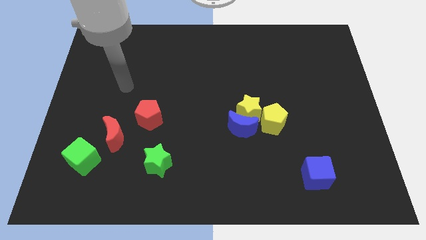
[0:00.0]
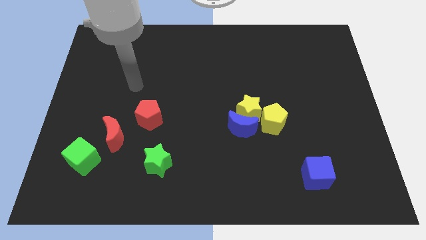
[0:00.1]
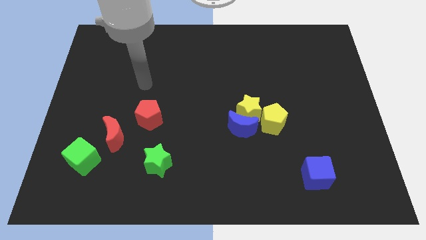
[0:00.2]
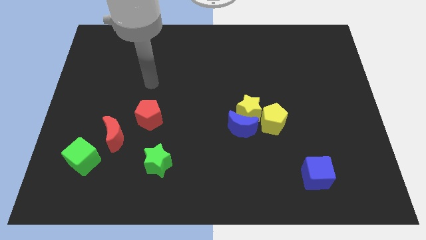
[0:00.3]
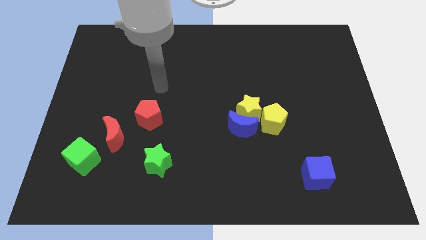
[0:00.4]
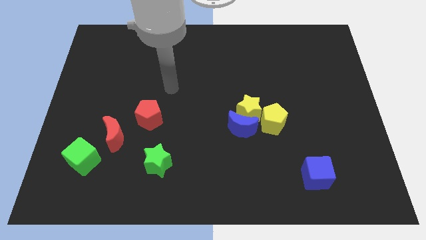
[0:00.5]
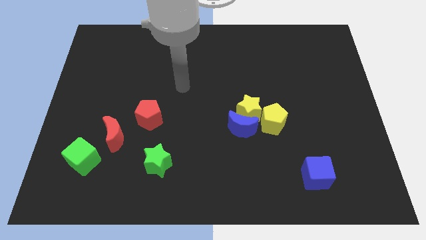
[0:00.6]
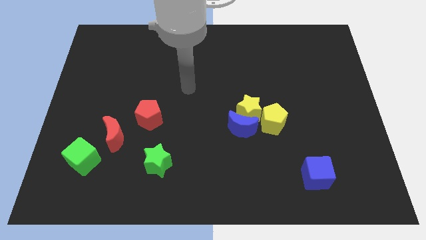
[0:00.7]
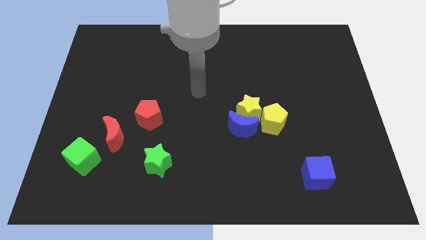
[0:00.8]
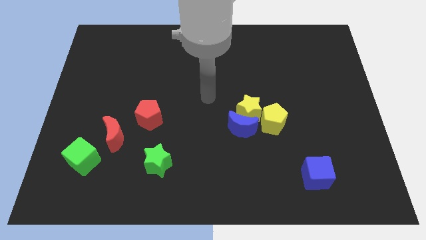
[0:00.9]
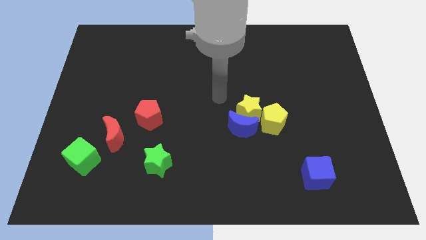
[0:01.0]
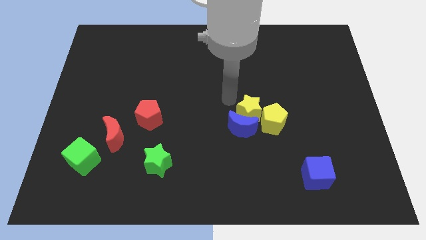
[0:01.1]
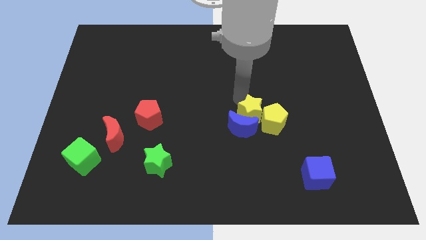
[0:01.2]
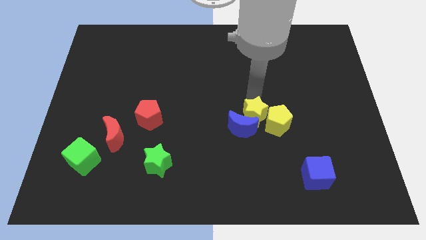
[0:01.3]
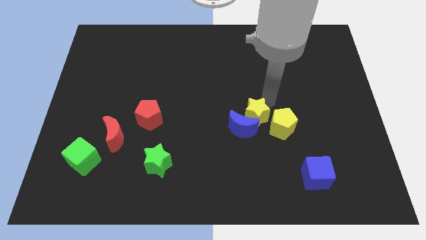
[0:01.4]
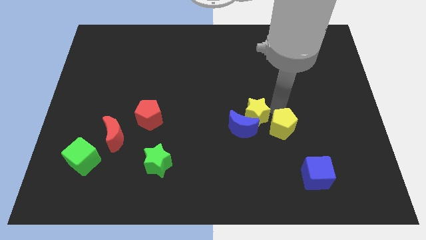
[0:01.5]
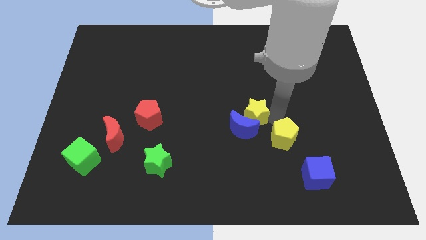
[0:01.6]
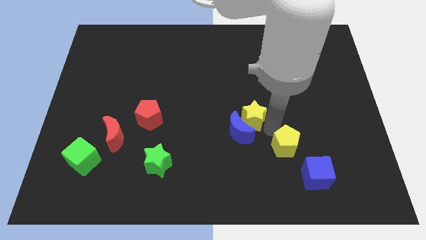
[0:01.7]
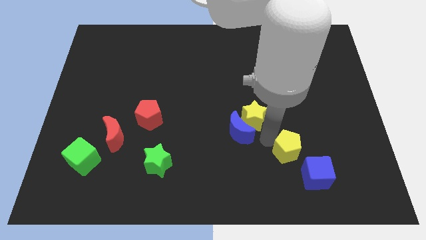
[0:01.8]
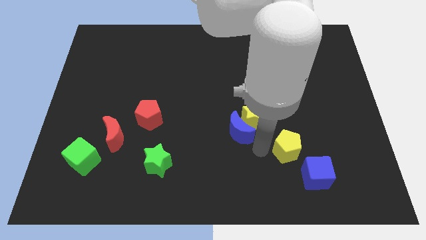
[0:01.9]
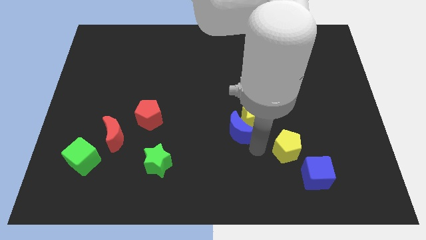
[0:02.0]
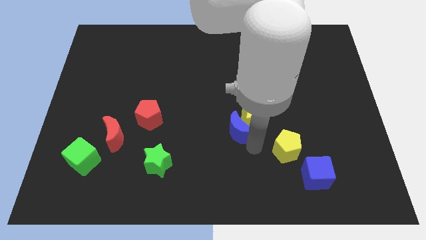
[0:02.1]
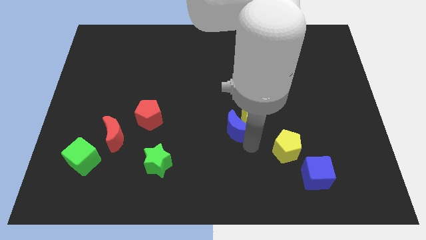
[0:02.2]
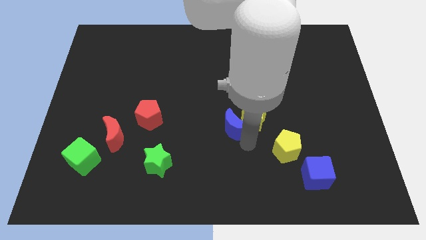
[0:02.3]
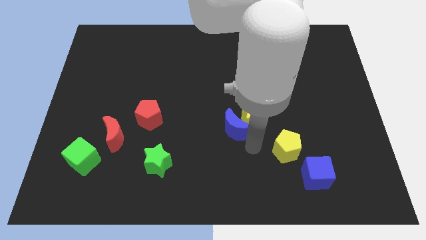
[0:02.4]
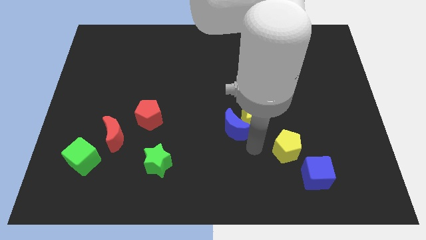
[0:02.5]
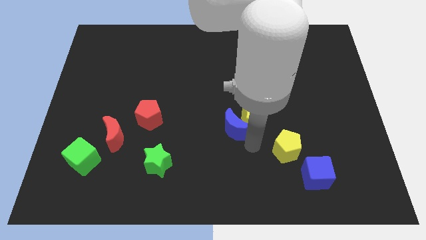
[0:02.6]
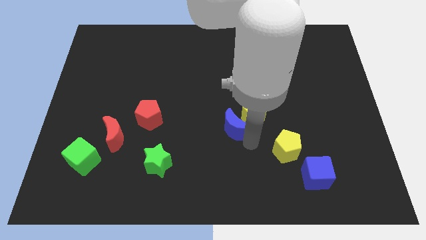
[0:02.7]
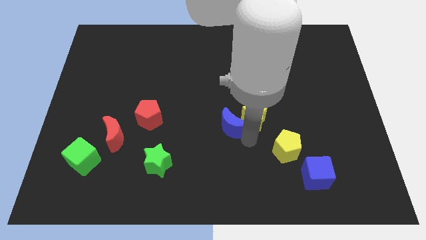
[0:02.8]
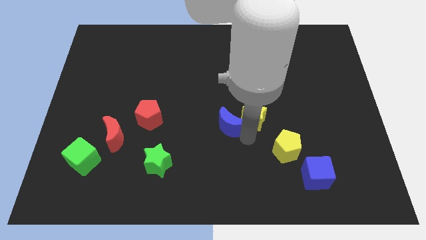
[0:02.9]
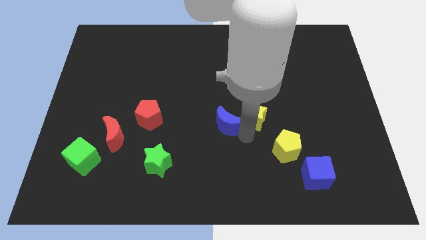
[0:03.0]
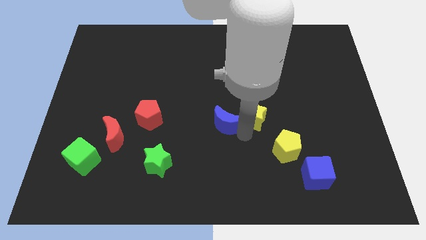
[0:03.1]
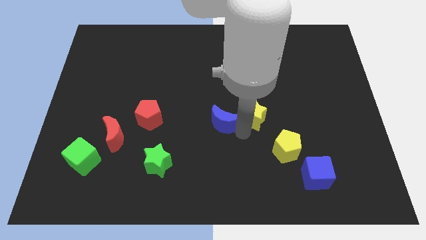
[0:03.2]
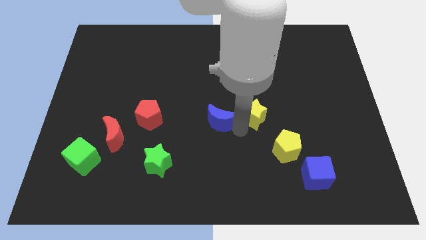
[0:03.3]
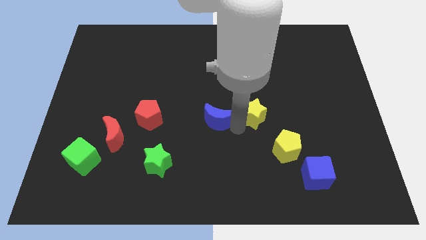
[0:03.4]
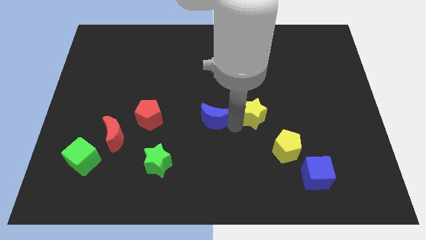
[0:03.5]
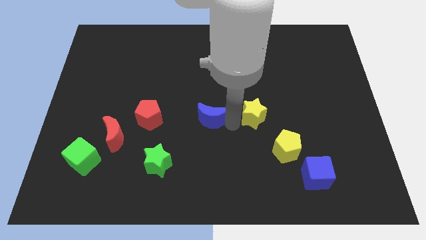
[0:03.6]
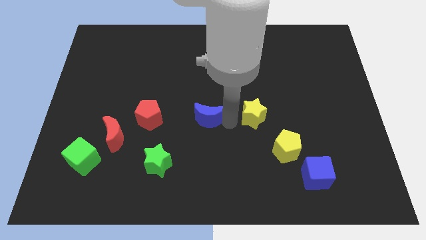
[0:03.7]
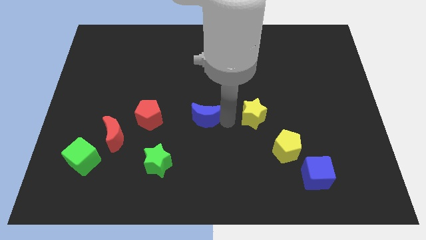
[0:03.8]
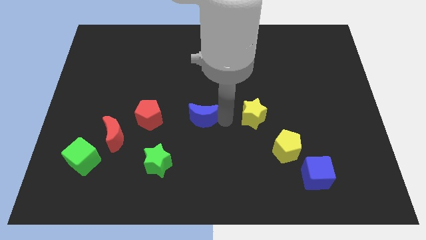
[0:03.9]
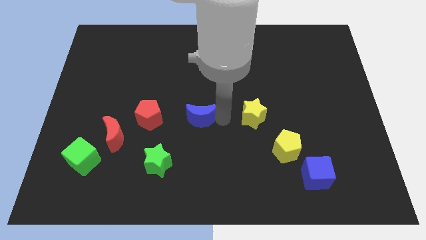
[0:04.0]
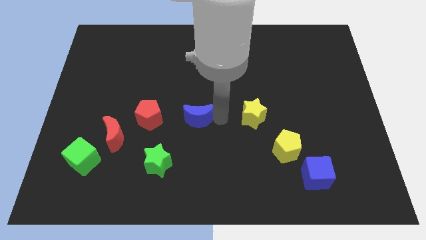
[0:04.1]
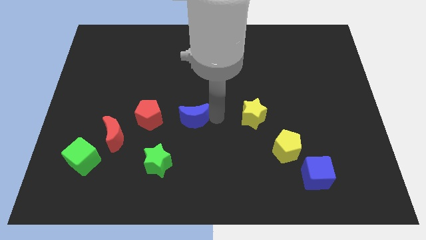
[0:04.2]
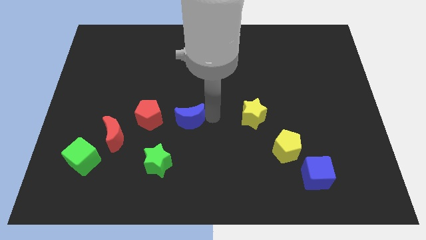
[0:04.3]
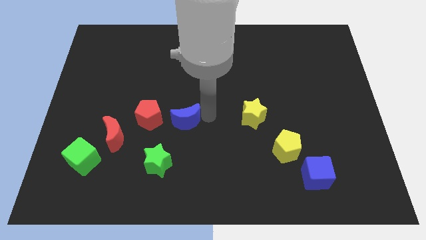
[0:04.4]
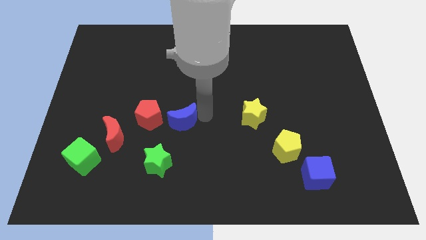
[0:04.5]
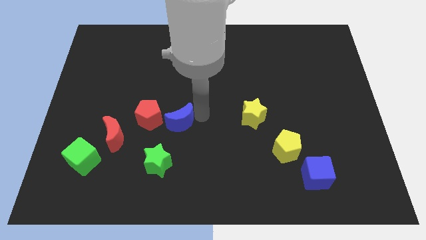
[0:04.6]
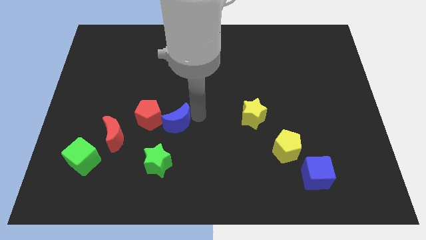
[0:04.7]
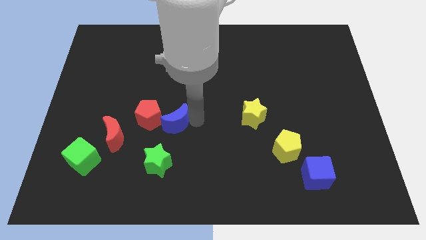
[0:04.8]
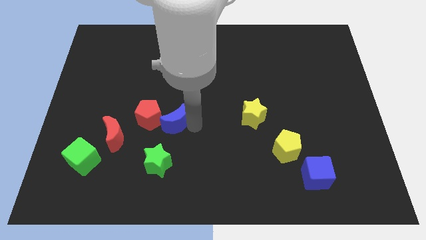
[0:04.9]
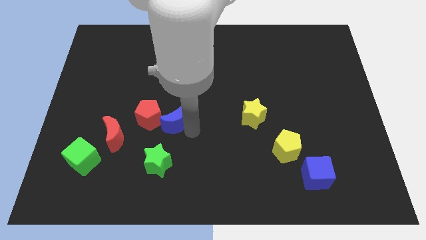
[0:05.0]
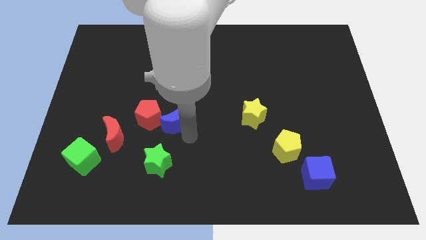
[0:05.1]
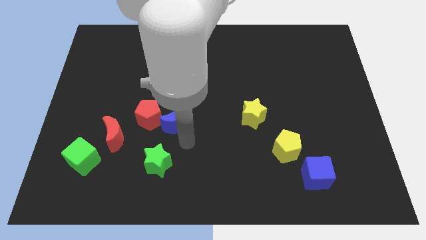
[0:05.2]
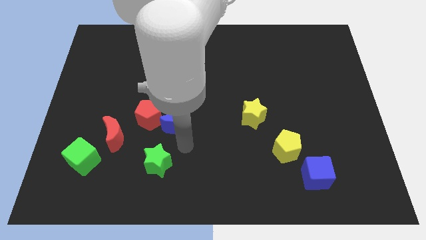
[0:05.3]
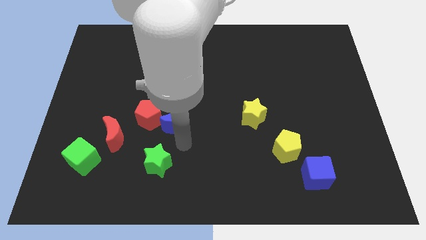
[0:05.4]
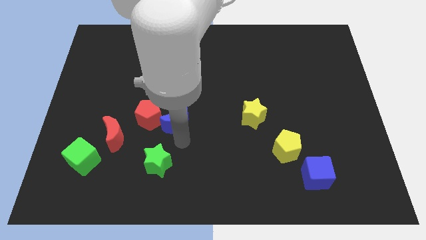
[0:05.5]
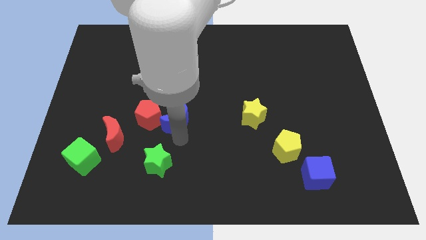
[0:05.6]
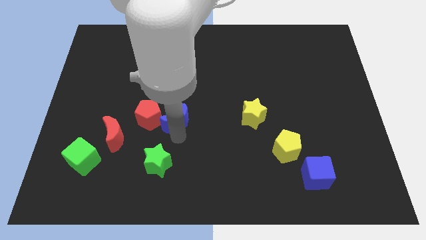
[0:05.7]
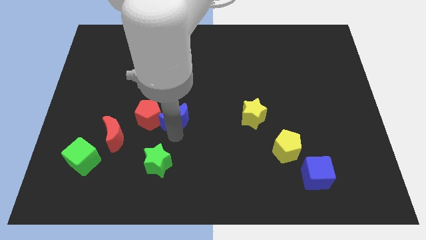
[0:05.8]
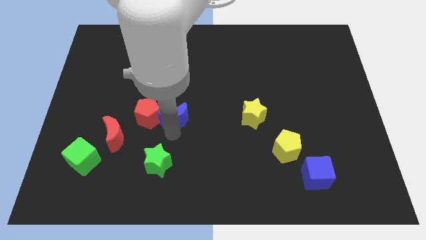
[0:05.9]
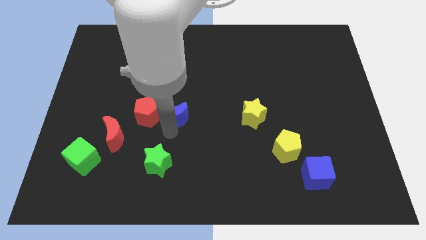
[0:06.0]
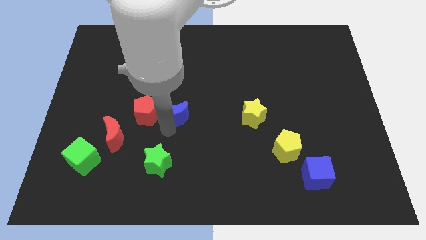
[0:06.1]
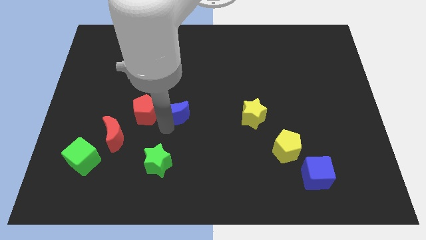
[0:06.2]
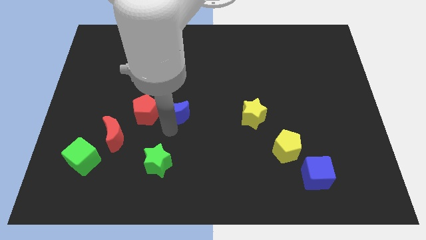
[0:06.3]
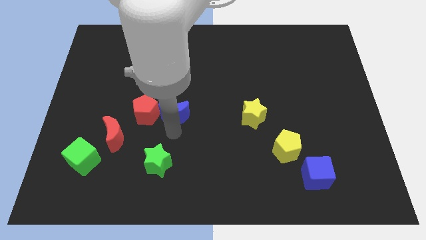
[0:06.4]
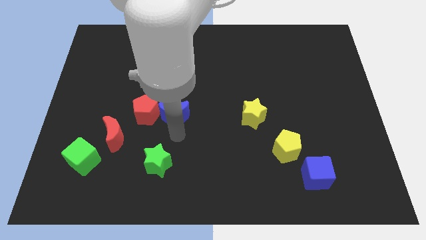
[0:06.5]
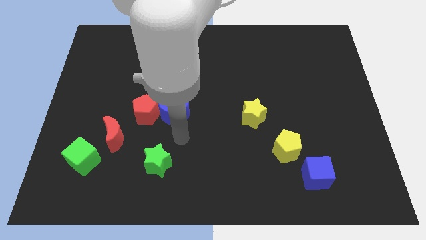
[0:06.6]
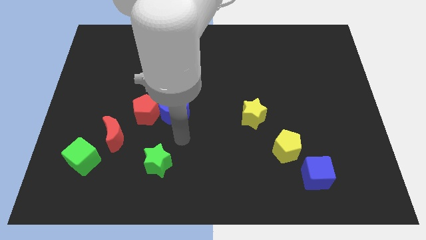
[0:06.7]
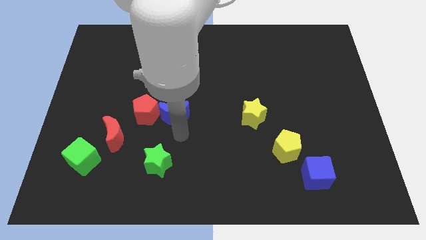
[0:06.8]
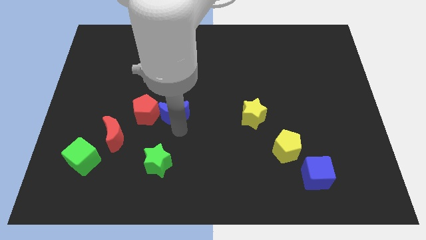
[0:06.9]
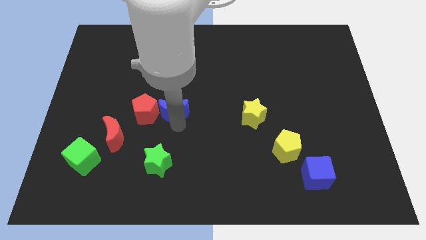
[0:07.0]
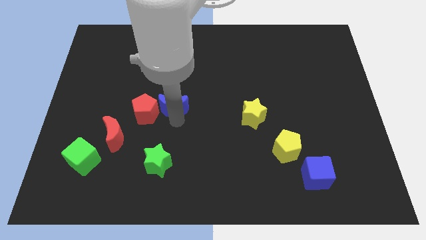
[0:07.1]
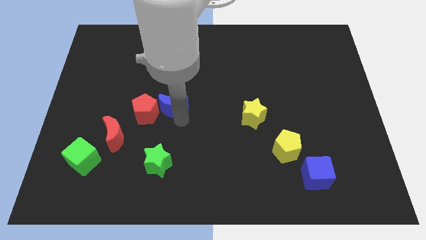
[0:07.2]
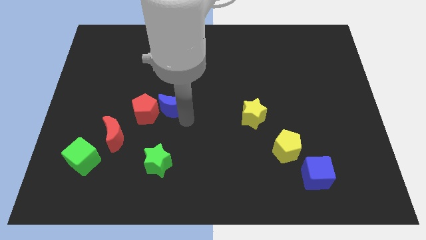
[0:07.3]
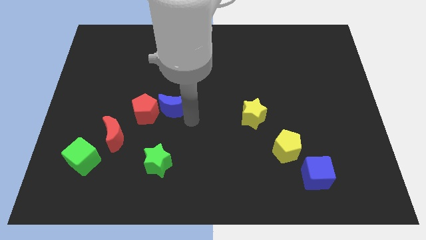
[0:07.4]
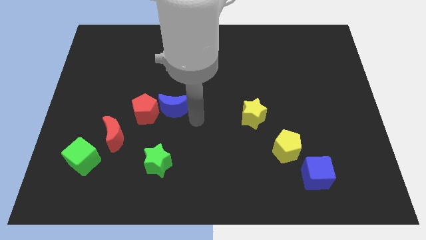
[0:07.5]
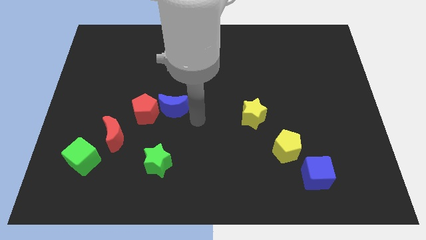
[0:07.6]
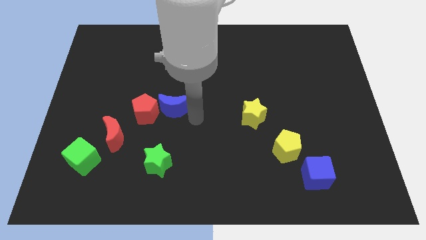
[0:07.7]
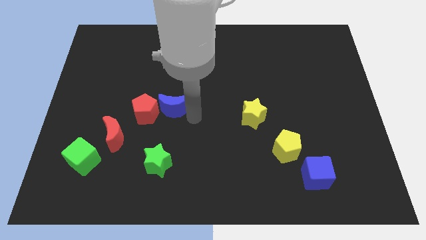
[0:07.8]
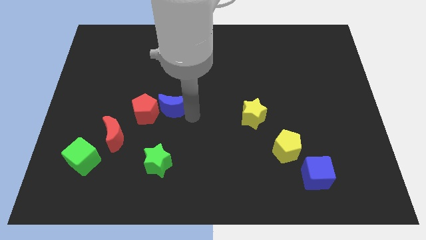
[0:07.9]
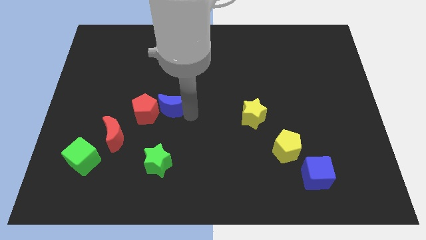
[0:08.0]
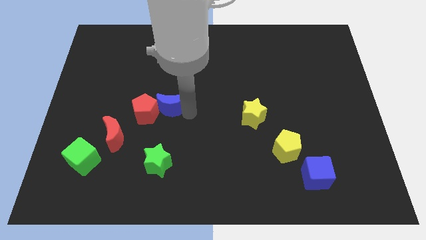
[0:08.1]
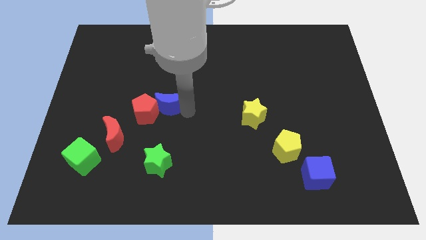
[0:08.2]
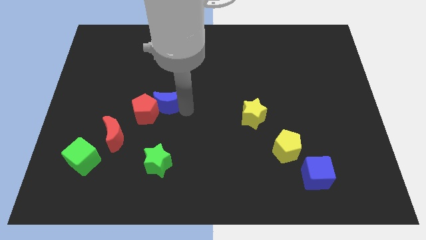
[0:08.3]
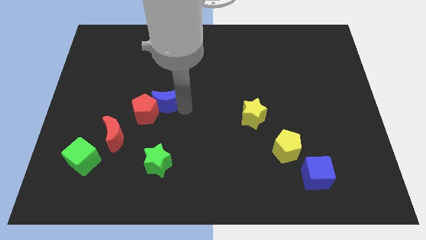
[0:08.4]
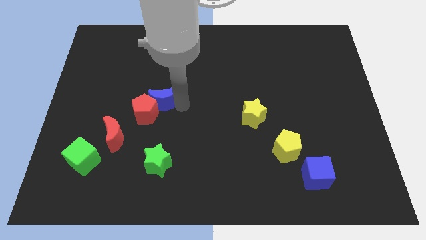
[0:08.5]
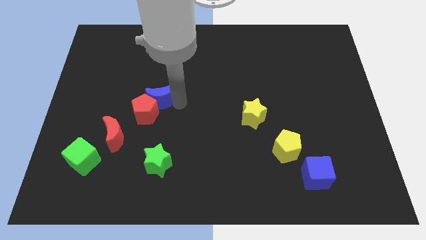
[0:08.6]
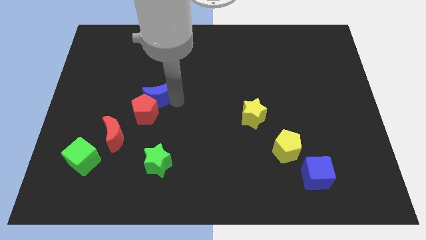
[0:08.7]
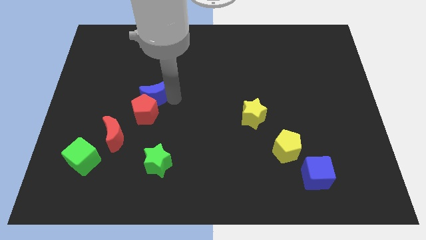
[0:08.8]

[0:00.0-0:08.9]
push the blue moon to the top left of the red pentagon
